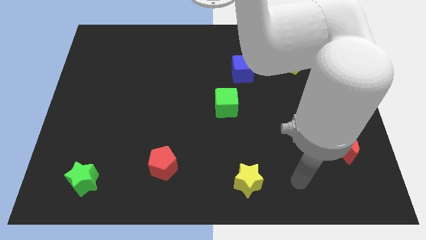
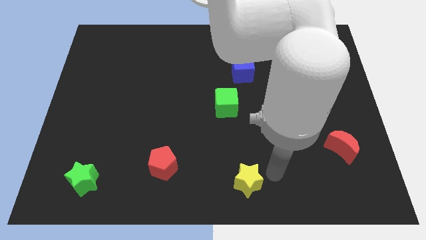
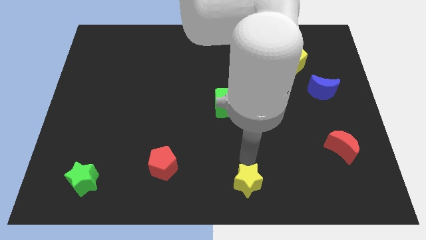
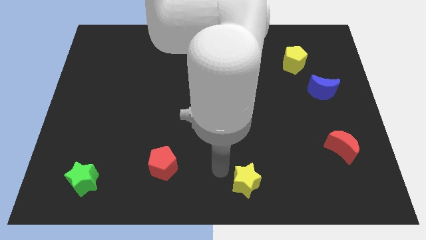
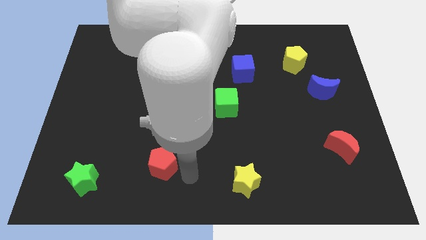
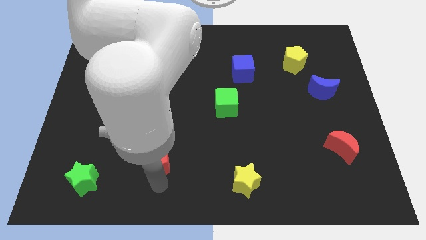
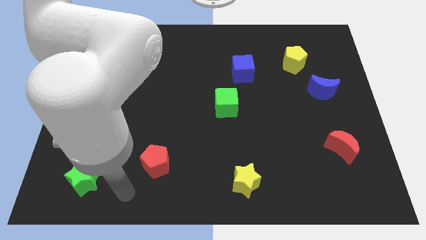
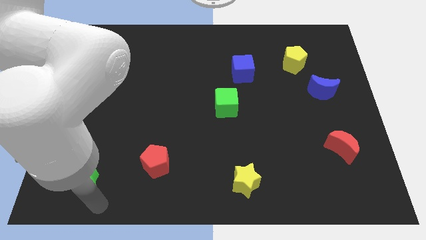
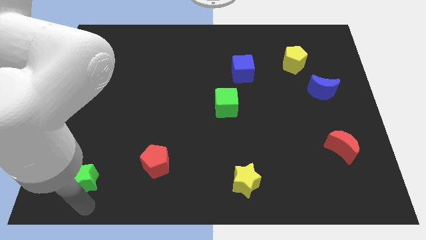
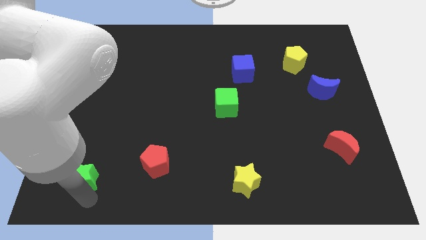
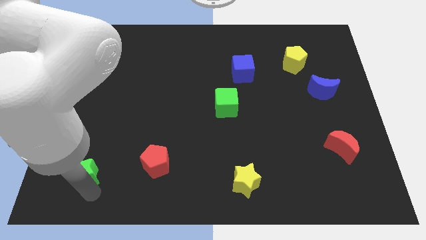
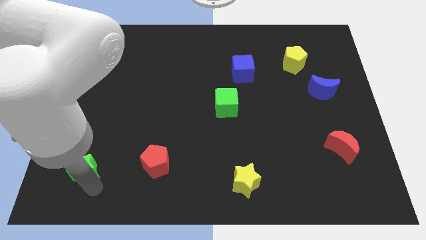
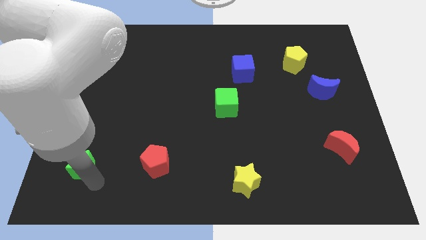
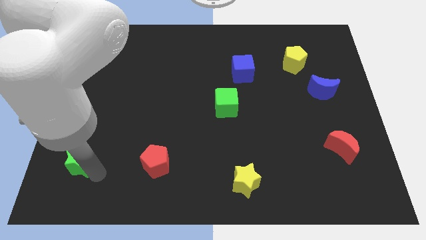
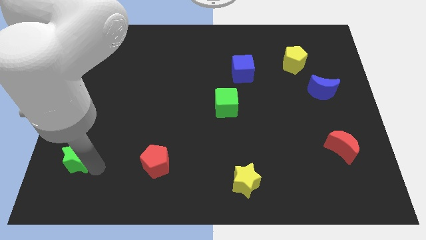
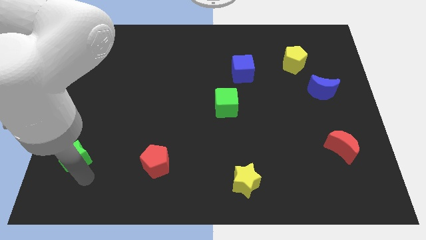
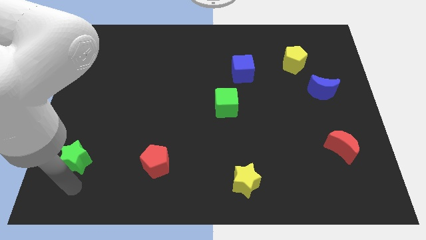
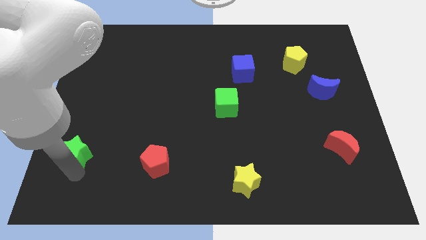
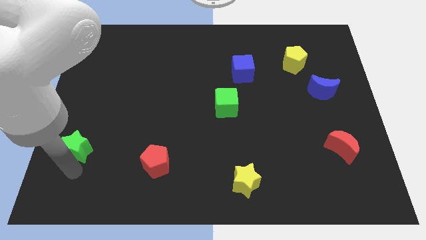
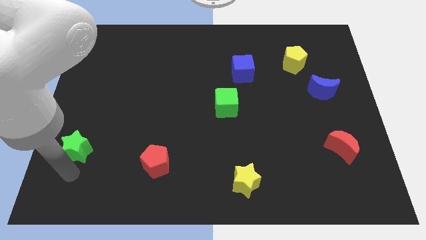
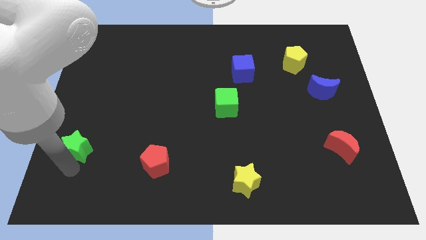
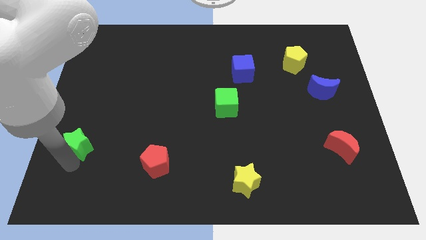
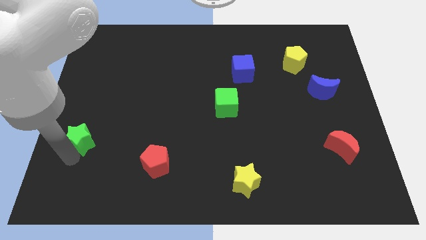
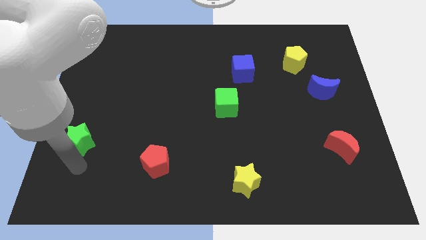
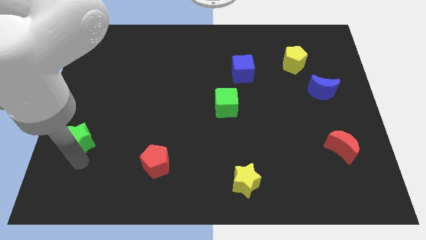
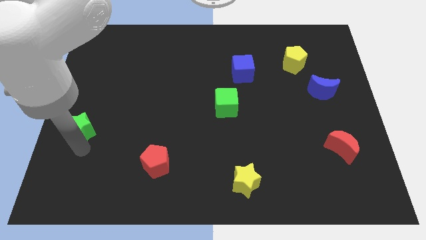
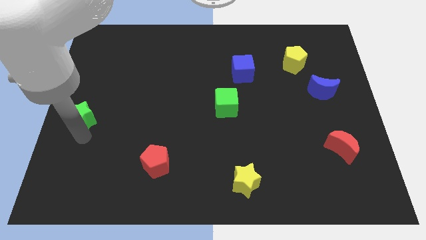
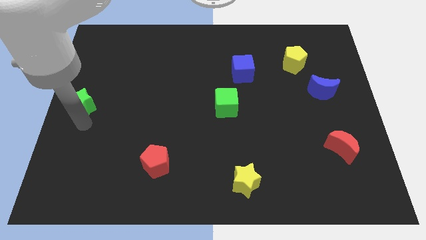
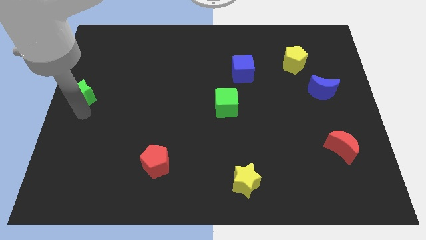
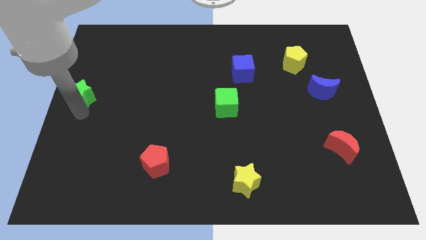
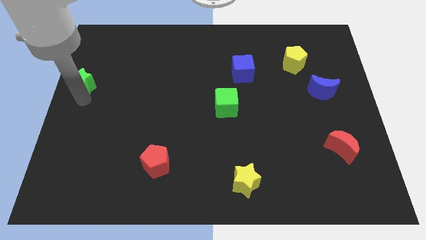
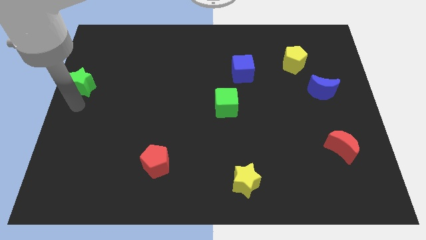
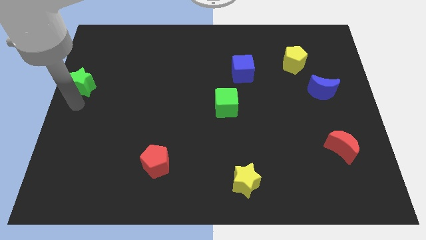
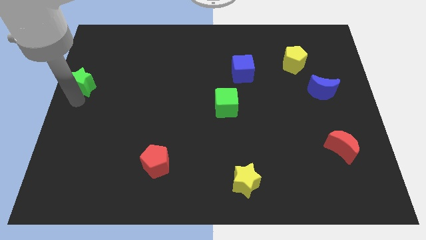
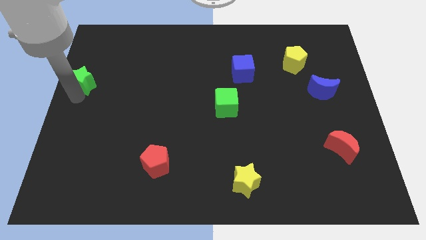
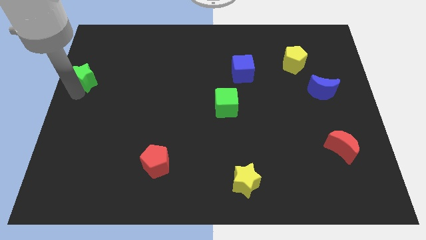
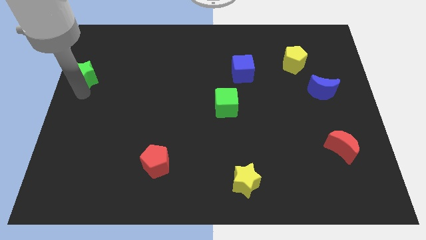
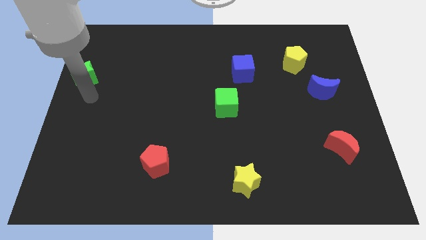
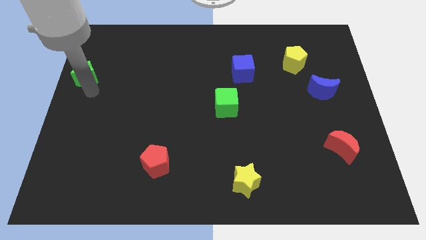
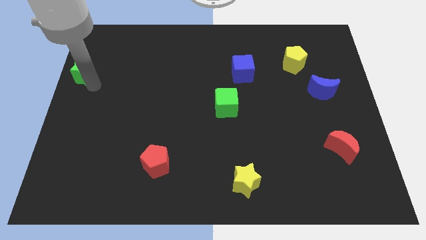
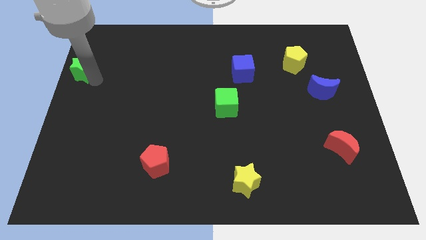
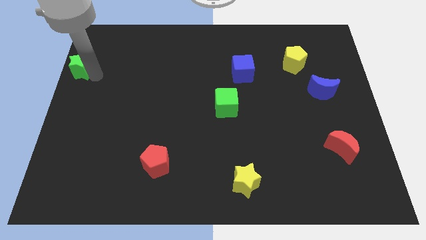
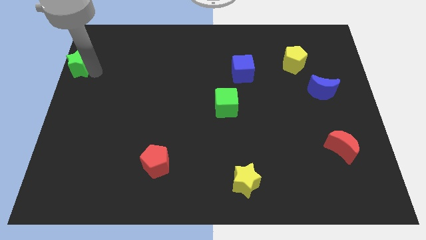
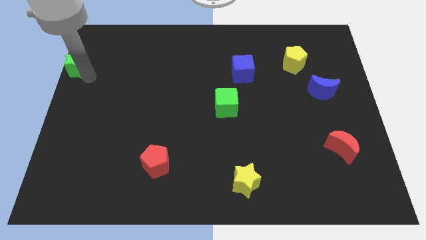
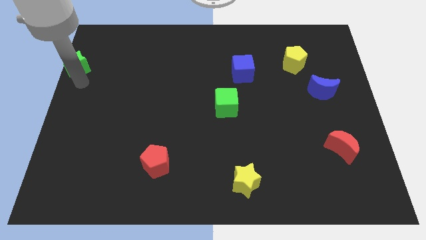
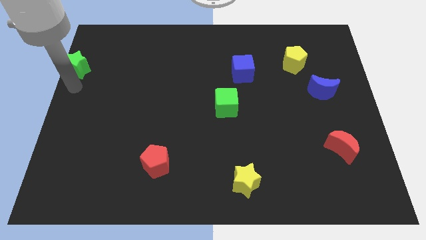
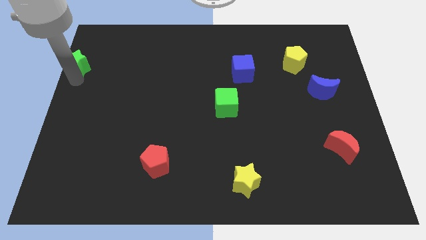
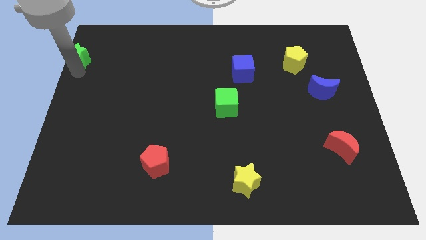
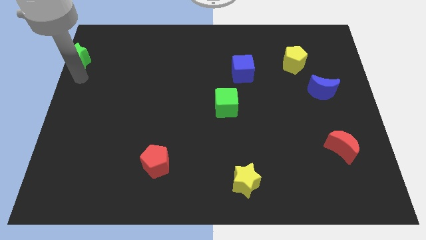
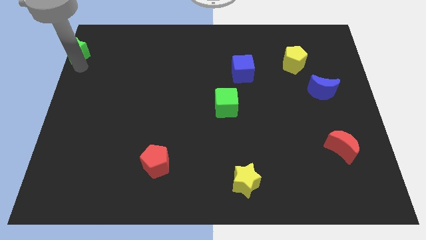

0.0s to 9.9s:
push the green star to the upper left corner

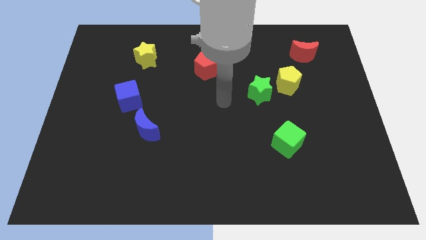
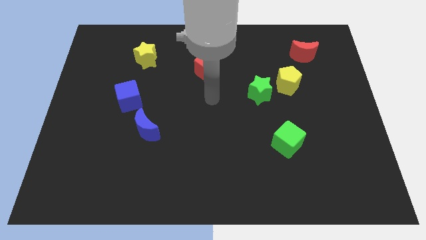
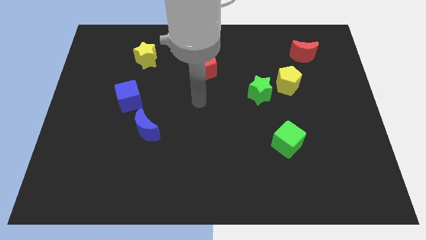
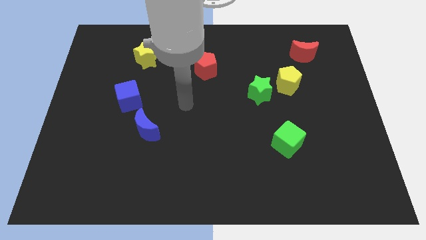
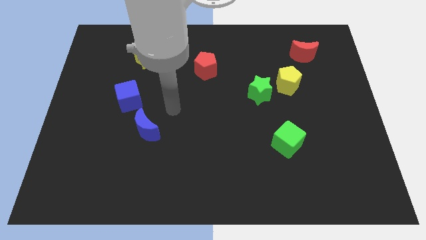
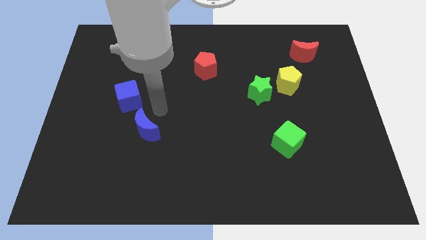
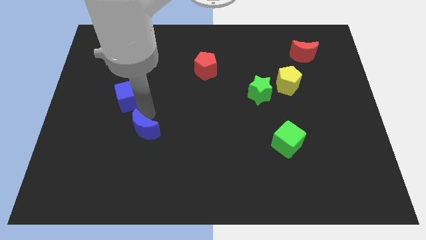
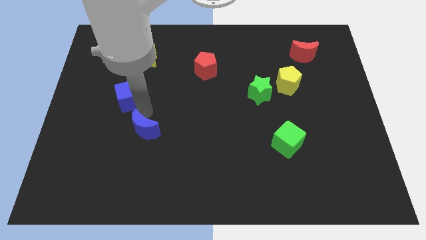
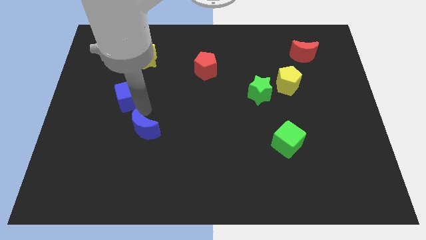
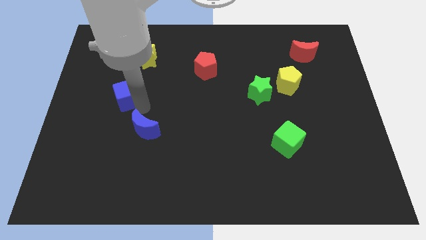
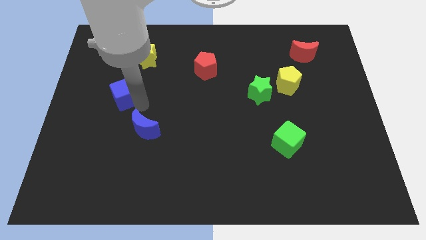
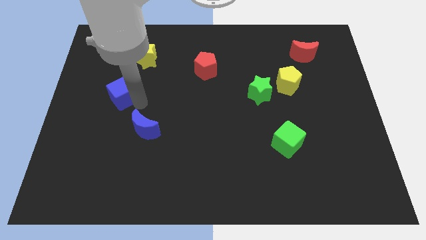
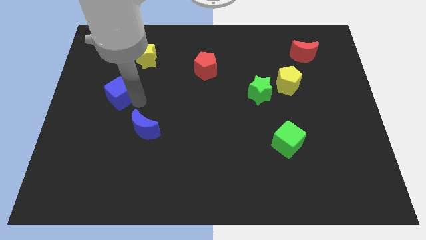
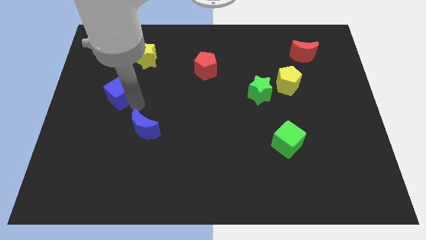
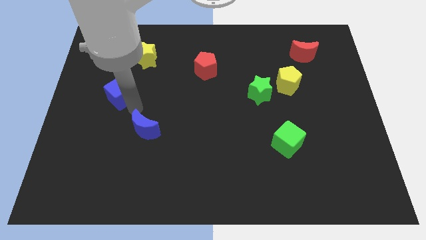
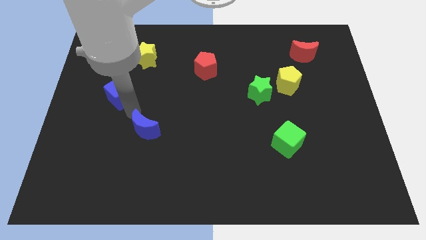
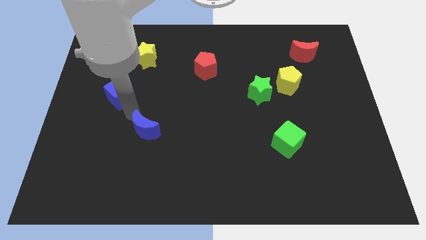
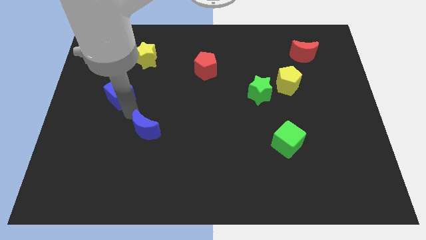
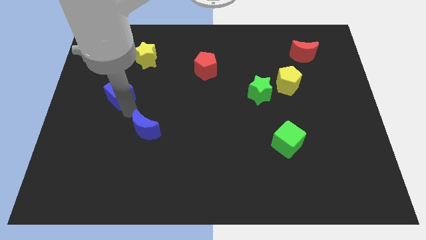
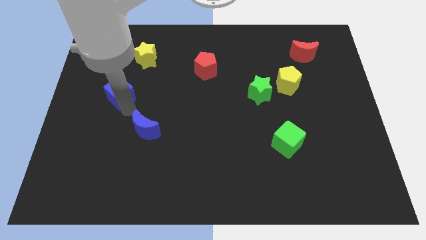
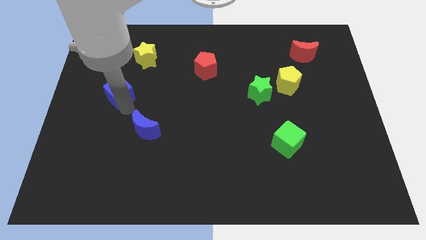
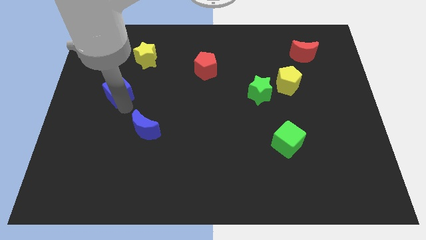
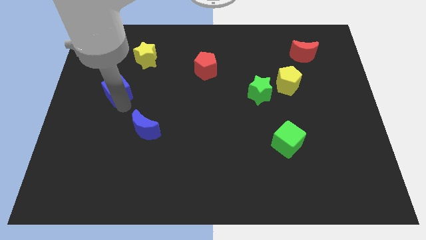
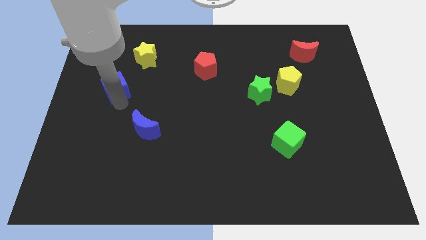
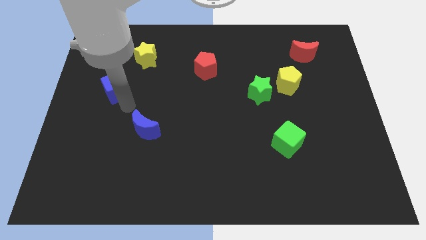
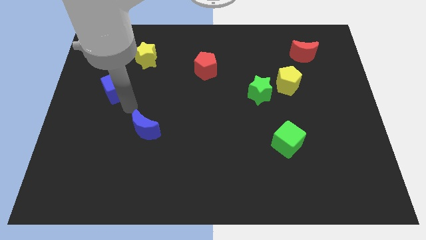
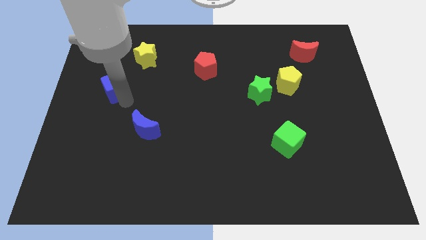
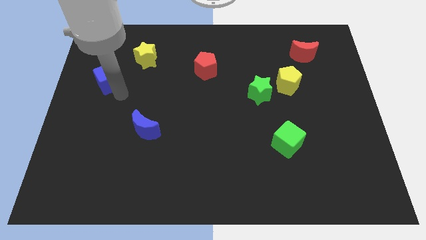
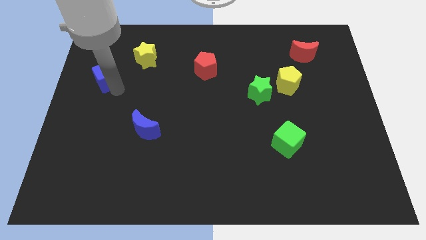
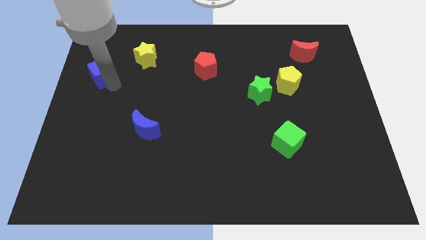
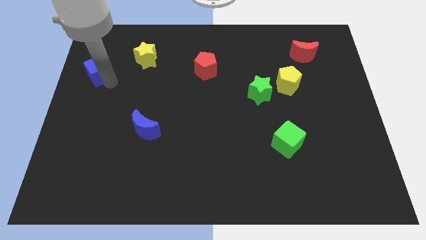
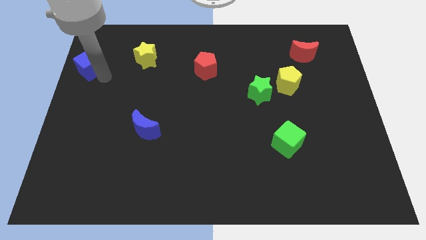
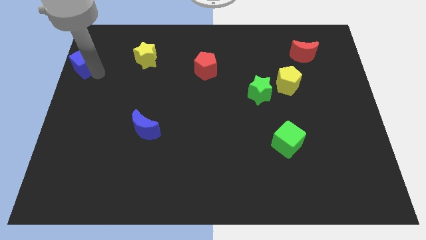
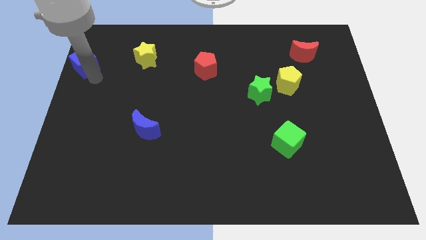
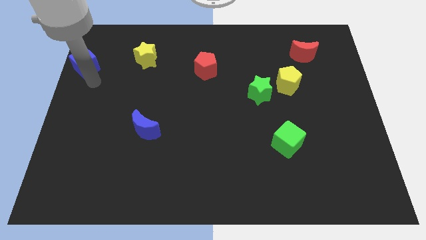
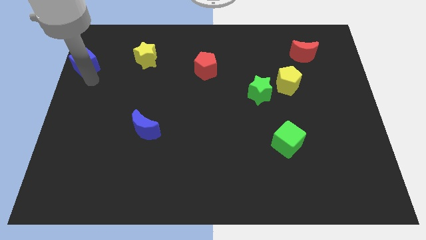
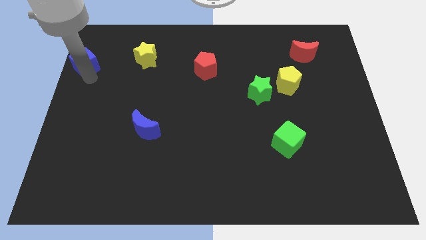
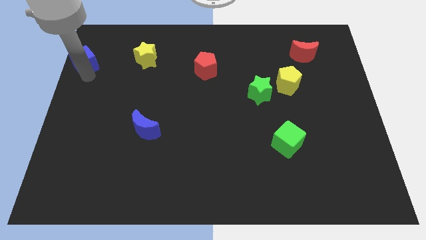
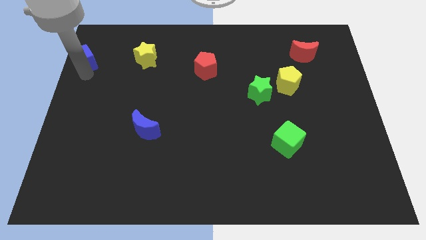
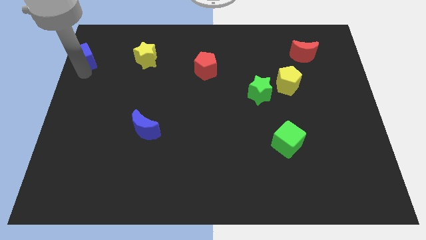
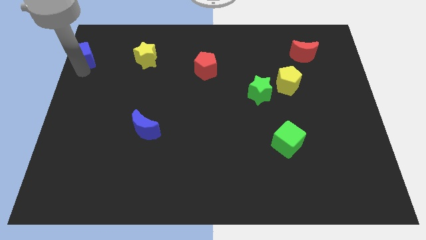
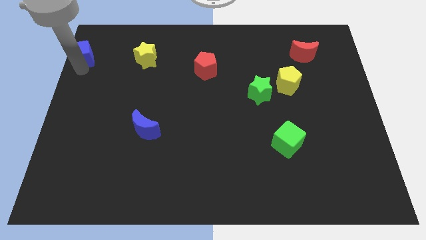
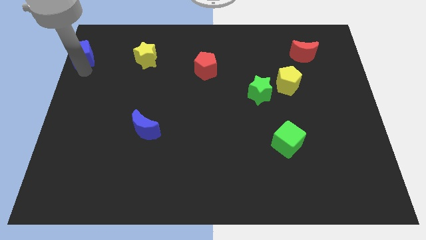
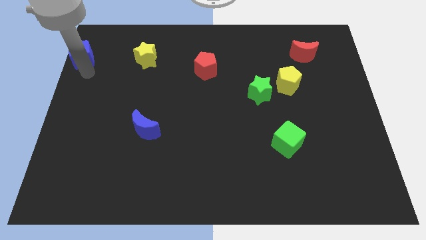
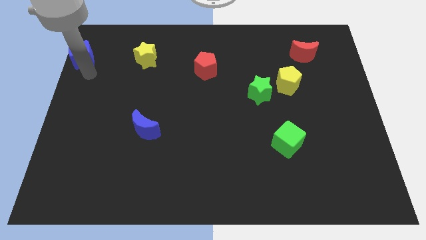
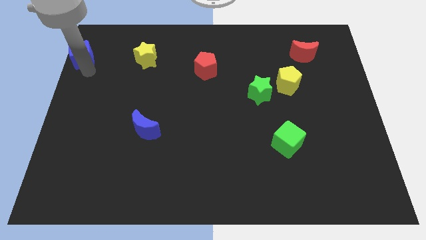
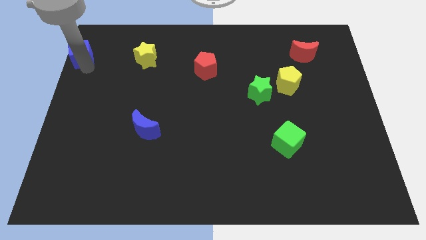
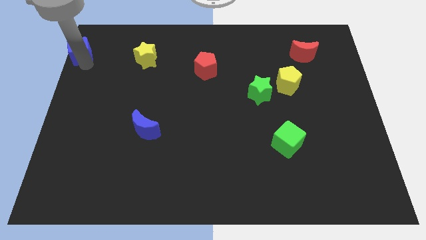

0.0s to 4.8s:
slide the blue cube to the top left of the board
